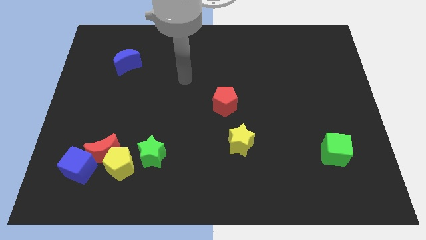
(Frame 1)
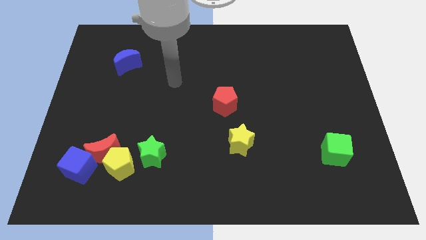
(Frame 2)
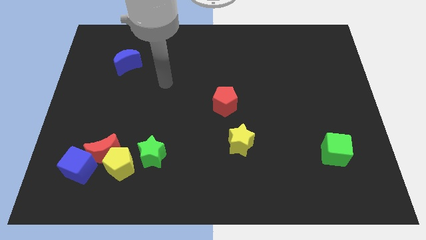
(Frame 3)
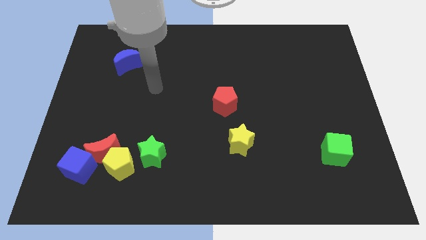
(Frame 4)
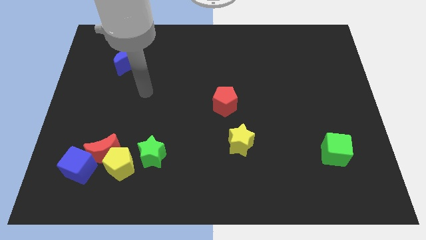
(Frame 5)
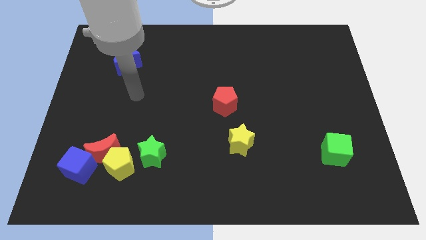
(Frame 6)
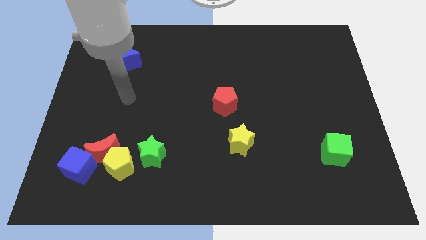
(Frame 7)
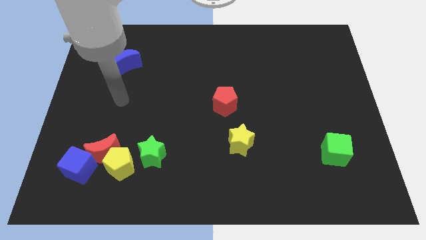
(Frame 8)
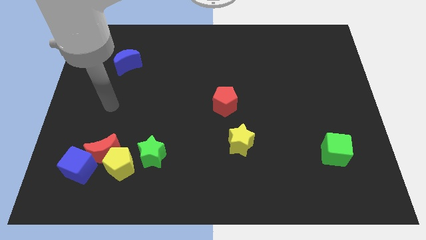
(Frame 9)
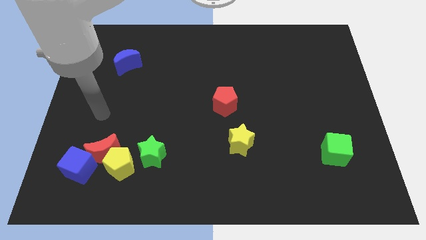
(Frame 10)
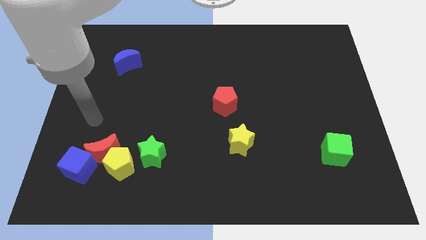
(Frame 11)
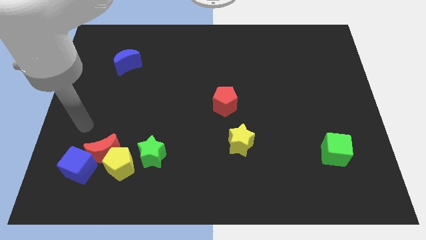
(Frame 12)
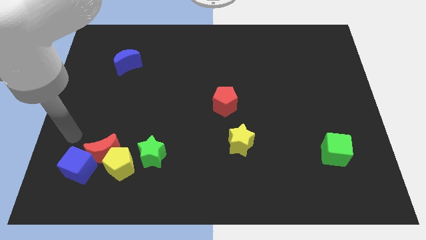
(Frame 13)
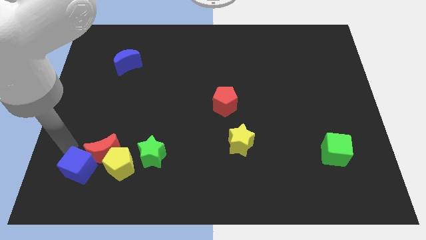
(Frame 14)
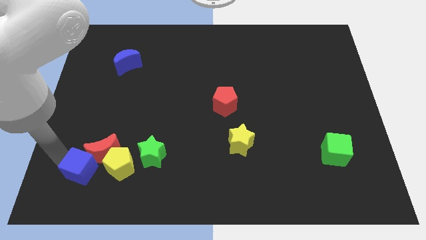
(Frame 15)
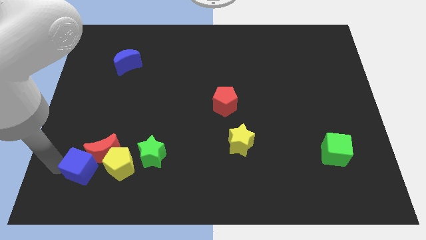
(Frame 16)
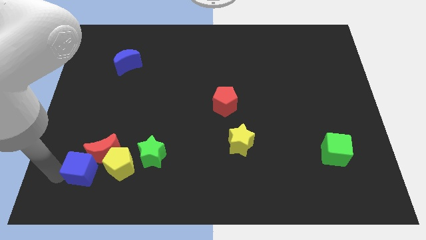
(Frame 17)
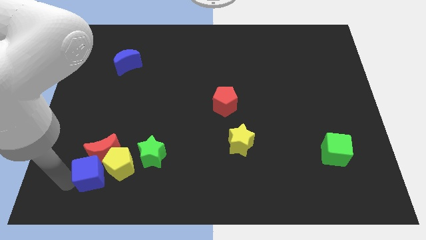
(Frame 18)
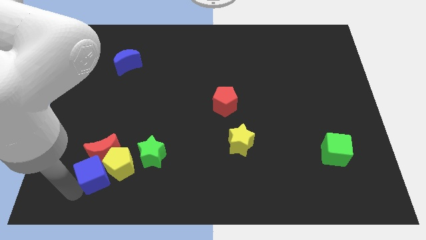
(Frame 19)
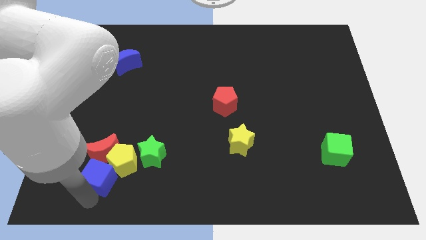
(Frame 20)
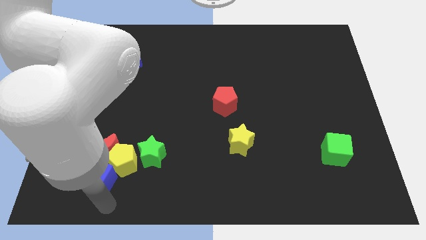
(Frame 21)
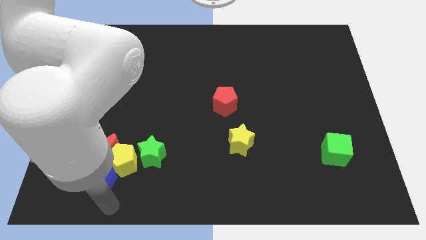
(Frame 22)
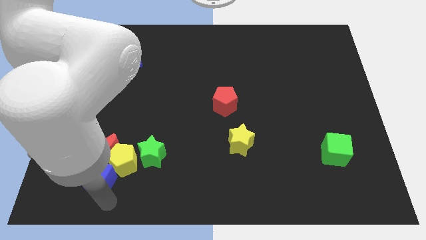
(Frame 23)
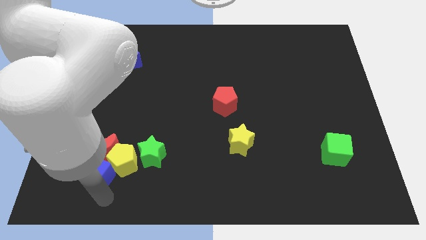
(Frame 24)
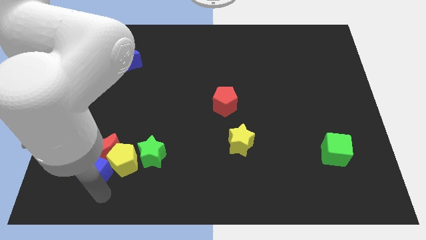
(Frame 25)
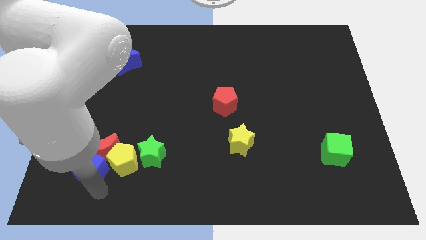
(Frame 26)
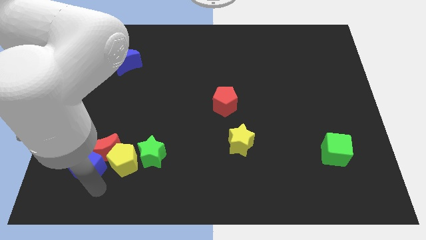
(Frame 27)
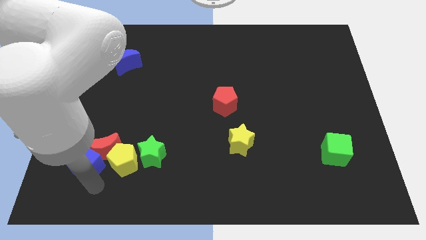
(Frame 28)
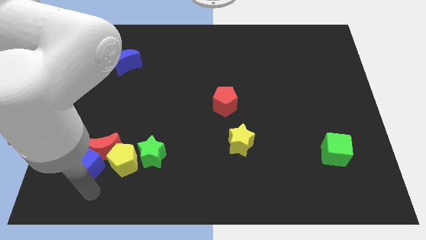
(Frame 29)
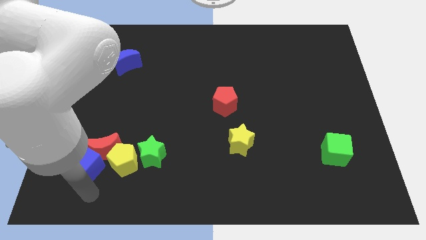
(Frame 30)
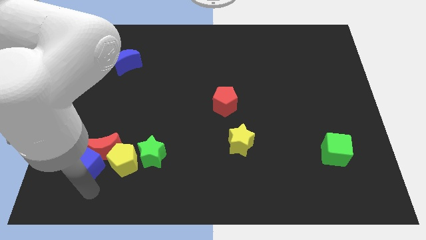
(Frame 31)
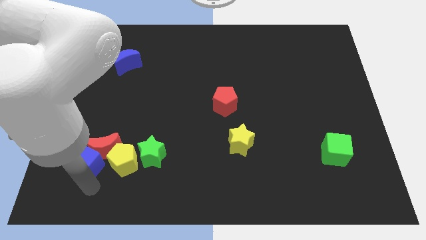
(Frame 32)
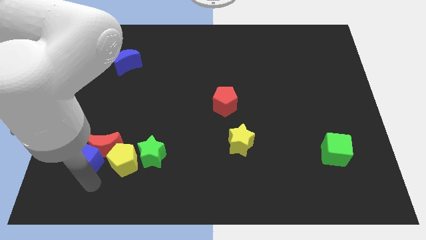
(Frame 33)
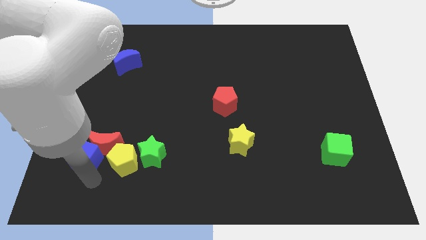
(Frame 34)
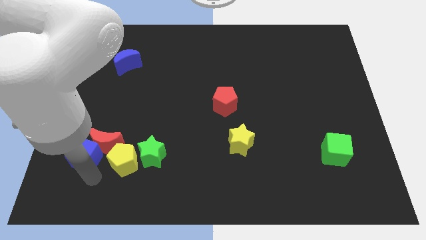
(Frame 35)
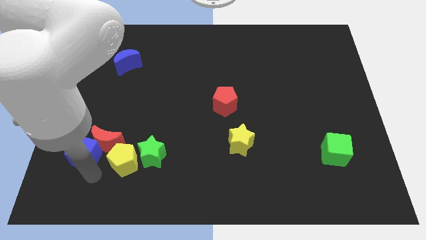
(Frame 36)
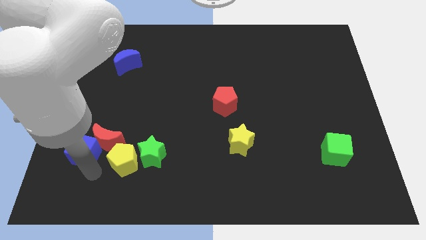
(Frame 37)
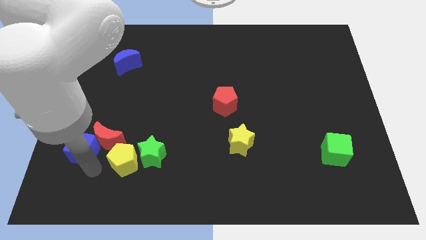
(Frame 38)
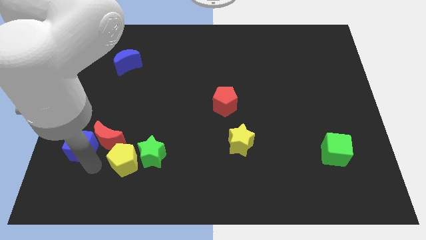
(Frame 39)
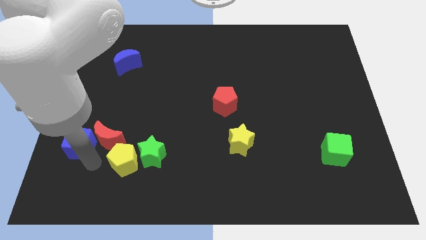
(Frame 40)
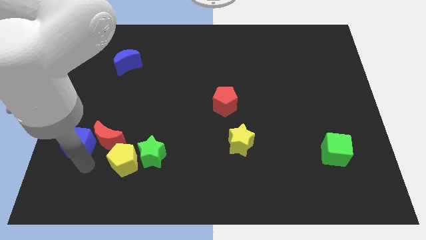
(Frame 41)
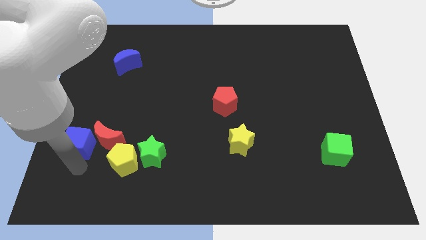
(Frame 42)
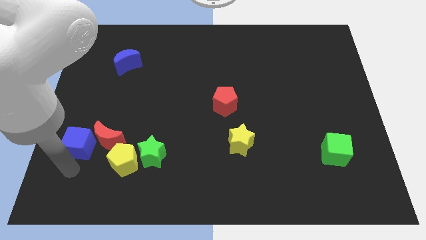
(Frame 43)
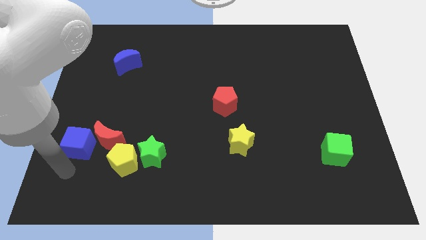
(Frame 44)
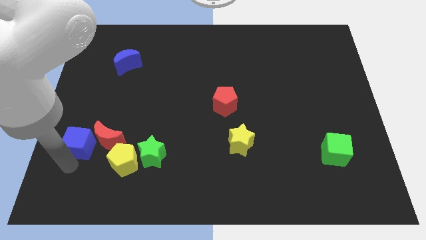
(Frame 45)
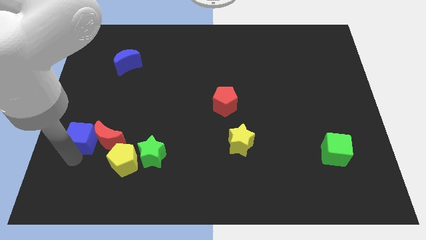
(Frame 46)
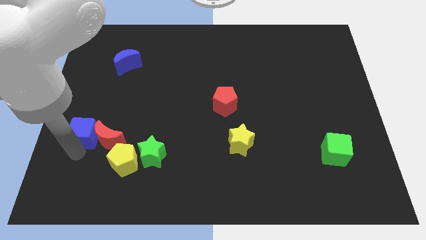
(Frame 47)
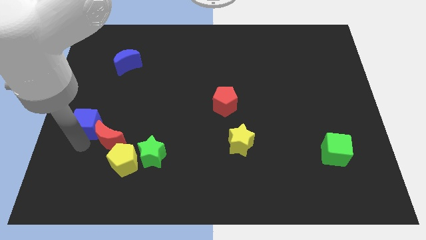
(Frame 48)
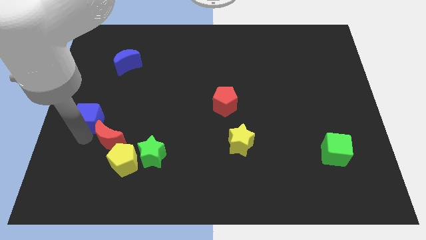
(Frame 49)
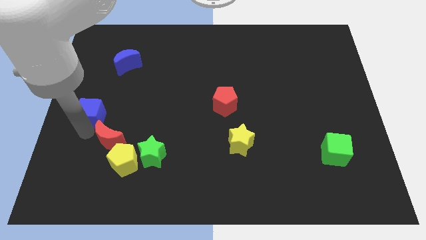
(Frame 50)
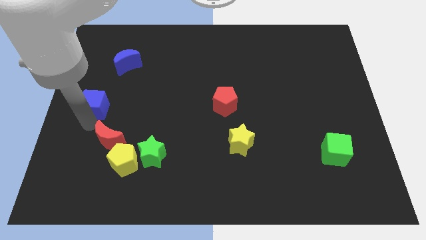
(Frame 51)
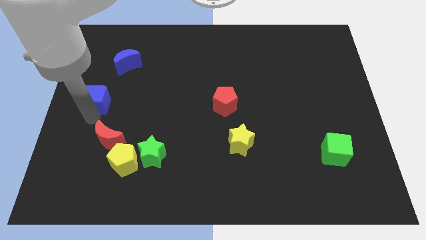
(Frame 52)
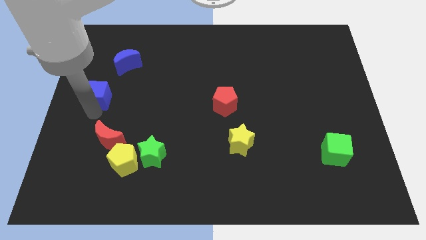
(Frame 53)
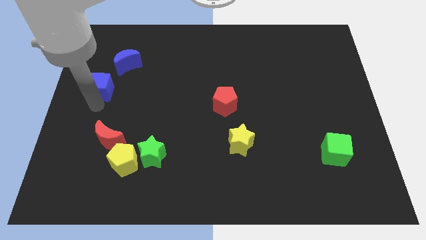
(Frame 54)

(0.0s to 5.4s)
slide the blue cube upwards

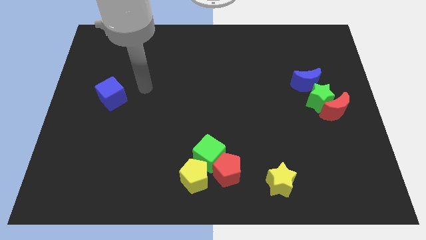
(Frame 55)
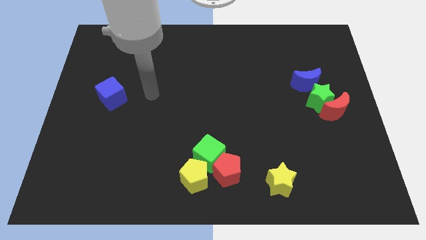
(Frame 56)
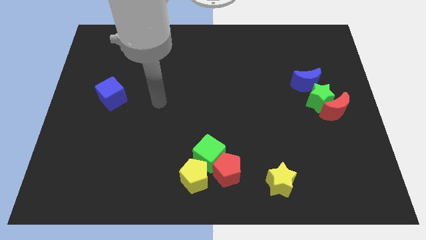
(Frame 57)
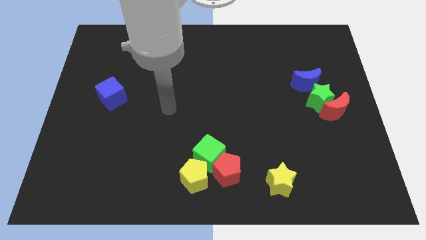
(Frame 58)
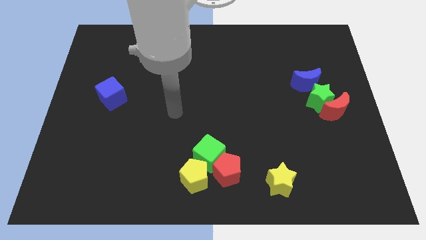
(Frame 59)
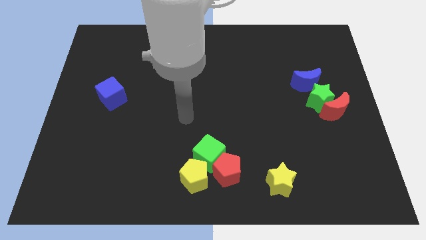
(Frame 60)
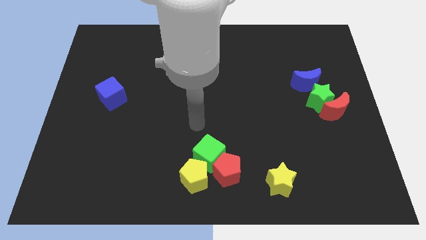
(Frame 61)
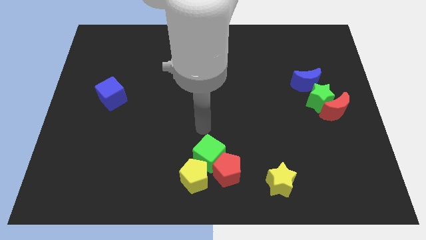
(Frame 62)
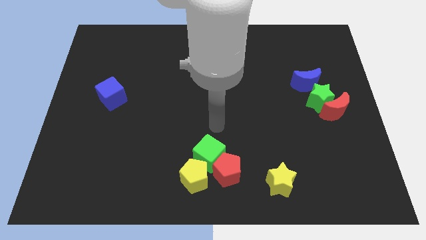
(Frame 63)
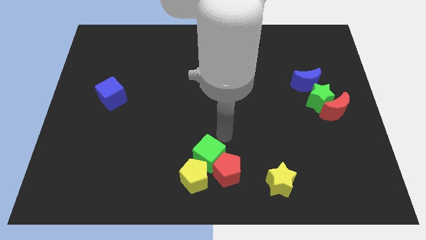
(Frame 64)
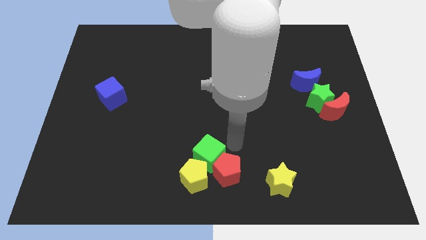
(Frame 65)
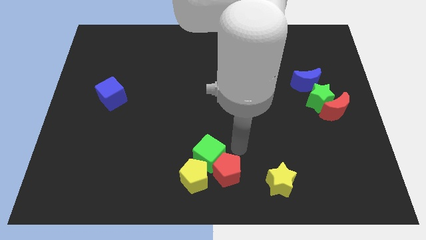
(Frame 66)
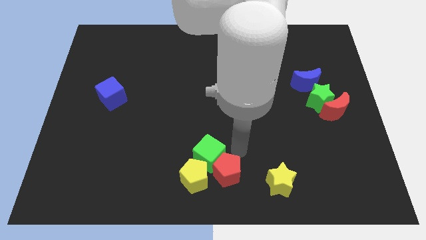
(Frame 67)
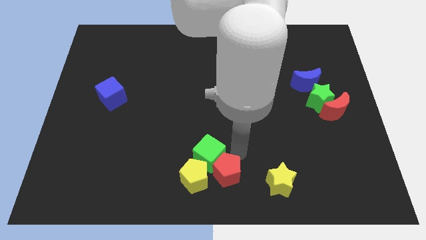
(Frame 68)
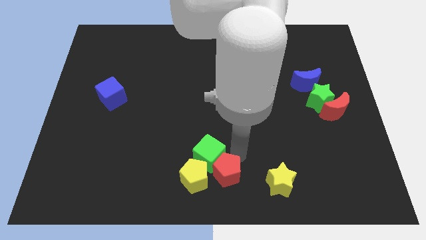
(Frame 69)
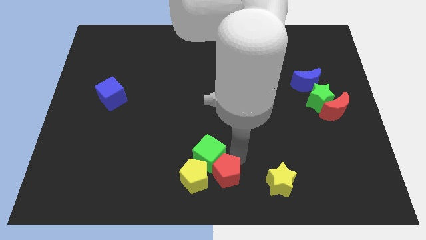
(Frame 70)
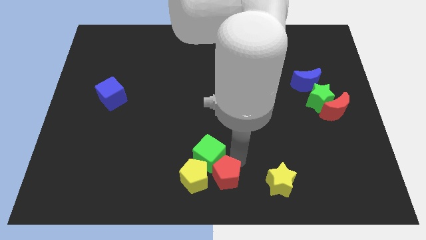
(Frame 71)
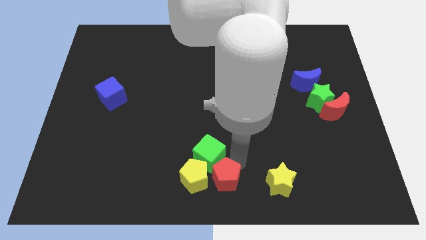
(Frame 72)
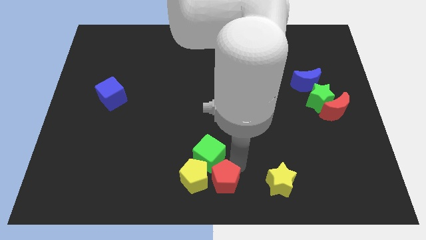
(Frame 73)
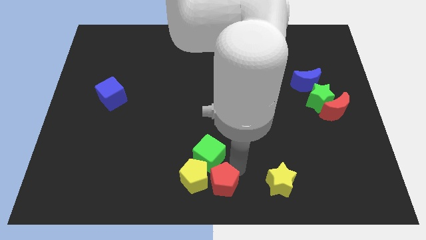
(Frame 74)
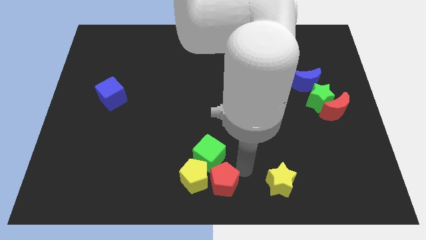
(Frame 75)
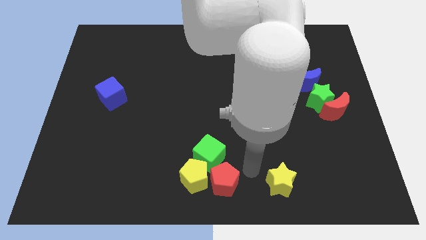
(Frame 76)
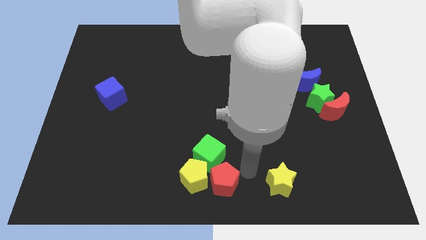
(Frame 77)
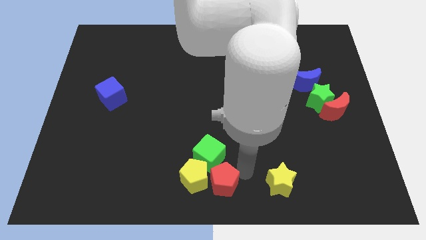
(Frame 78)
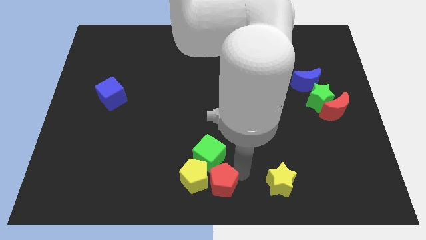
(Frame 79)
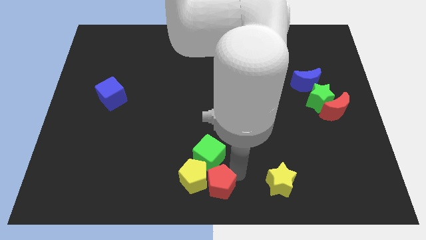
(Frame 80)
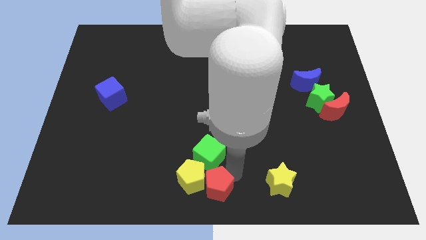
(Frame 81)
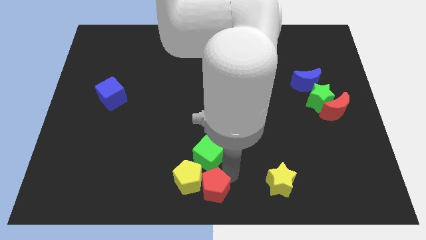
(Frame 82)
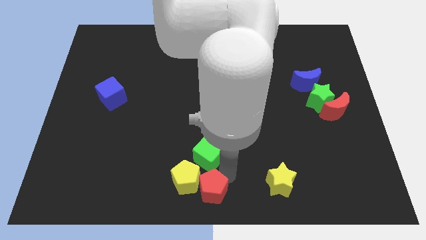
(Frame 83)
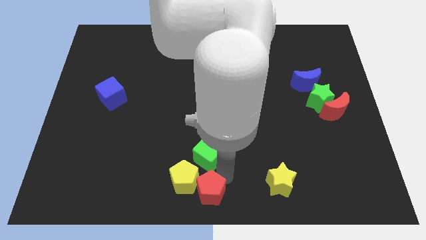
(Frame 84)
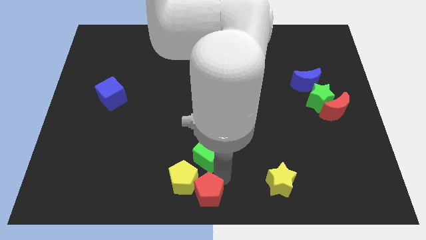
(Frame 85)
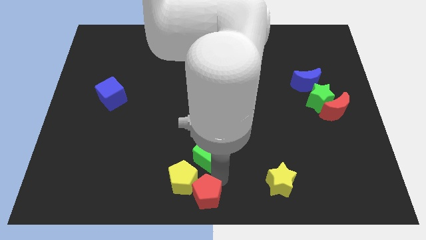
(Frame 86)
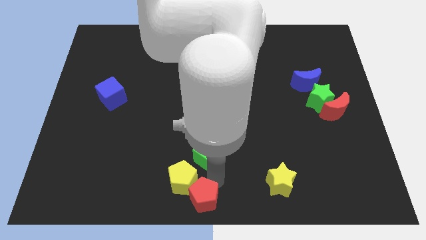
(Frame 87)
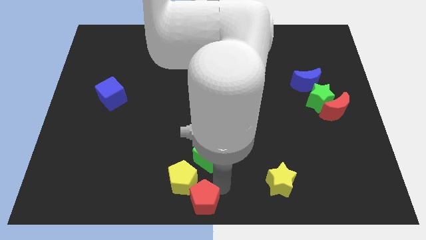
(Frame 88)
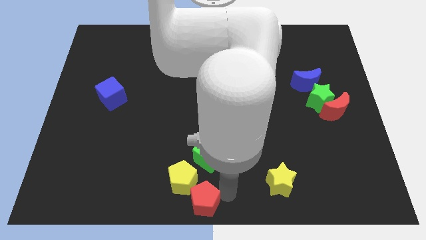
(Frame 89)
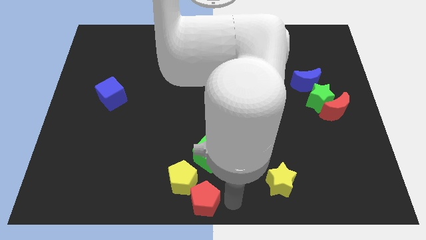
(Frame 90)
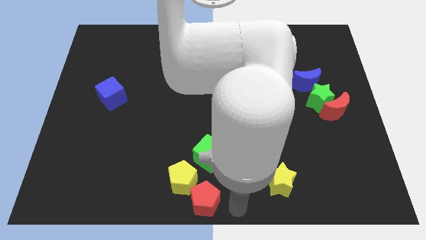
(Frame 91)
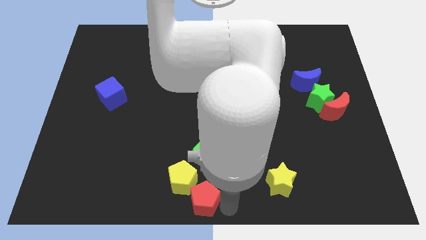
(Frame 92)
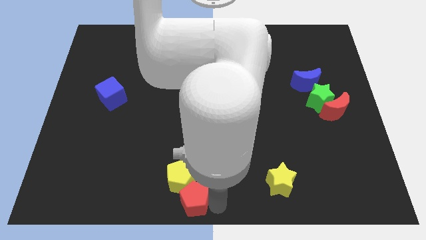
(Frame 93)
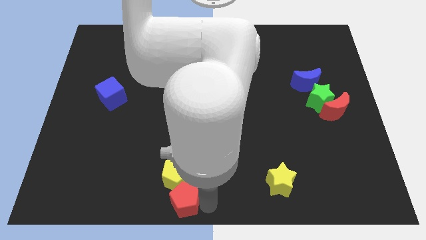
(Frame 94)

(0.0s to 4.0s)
slightly push the red pentagon left
